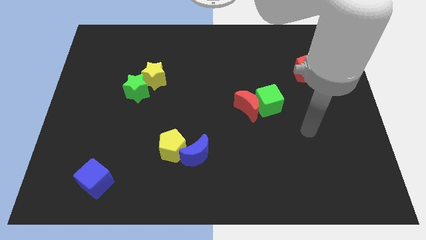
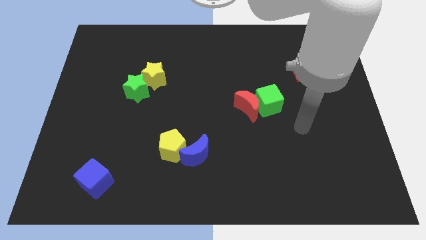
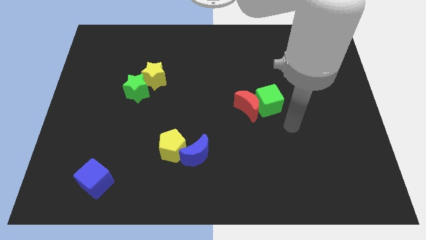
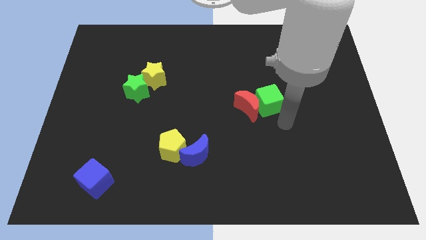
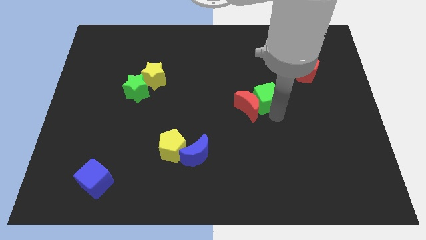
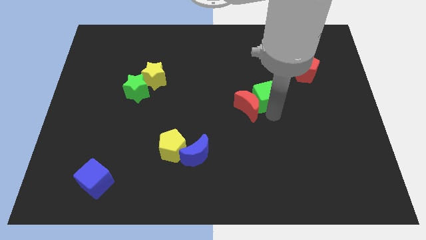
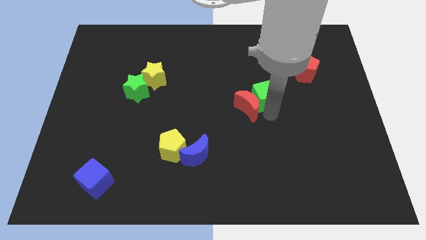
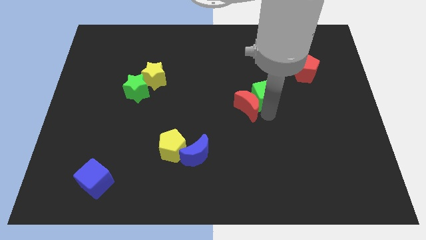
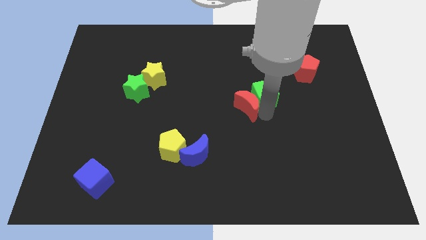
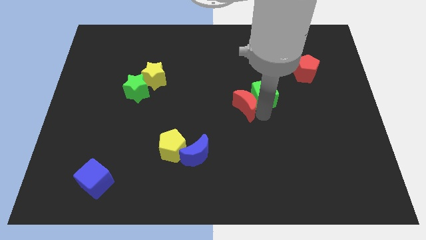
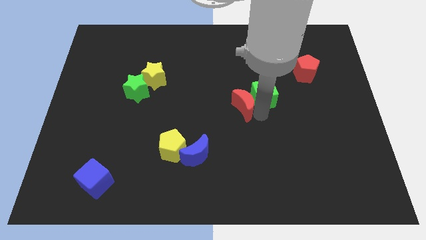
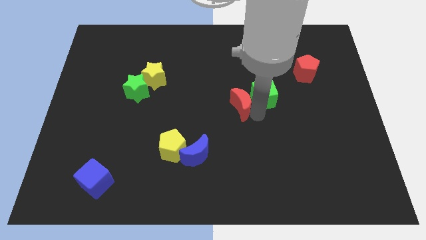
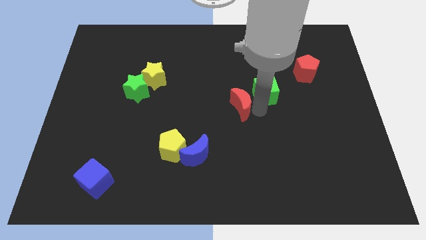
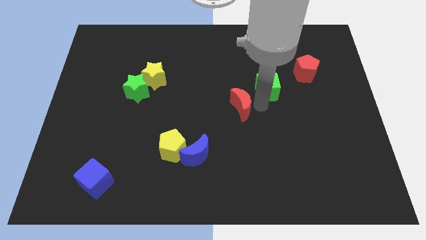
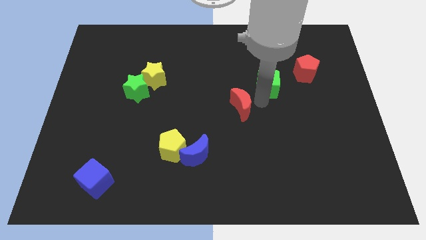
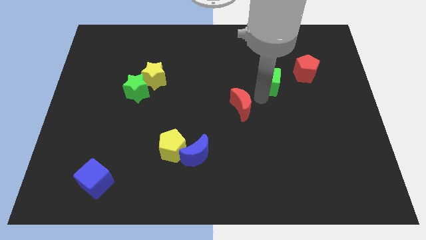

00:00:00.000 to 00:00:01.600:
move the red moon away from the green cube

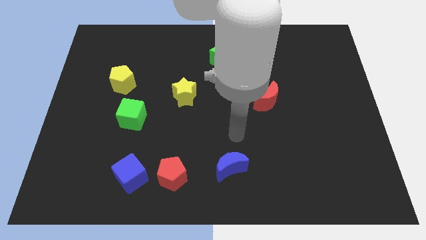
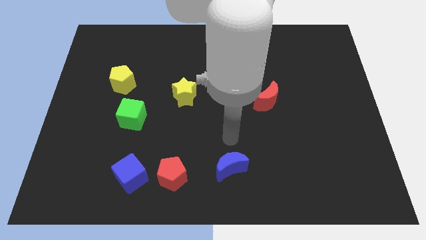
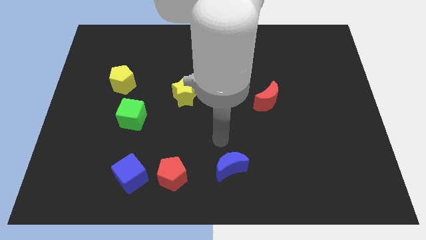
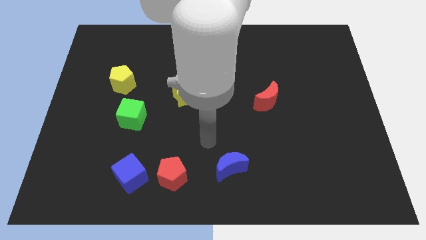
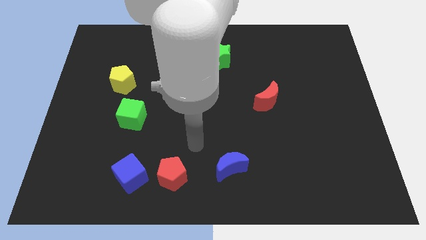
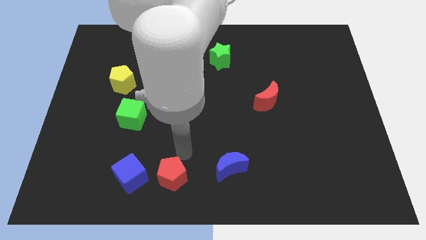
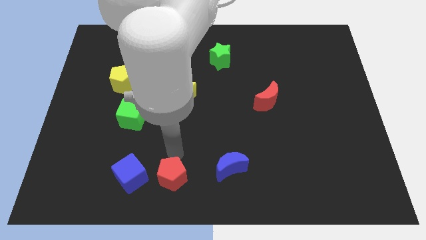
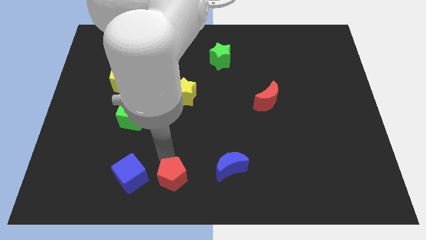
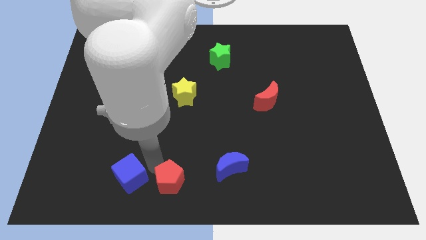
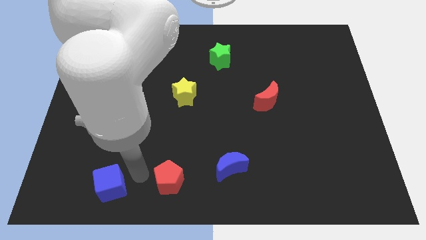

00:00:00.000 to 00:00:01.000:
pull the red pentagon apart from the blue cube

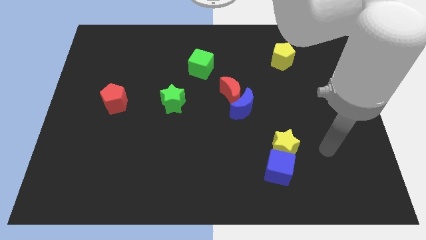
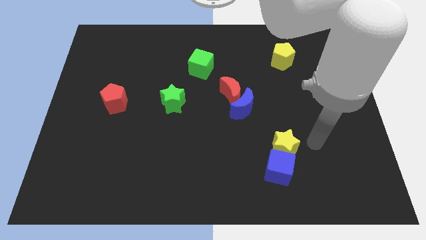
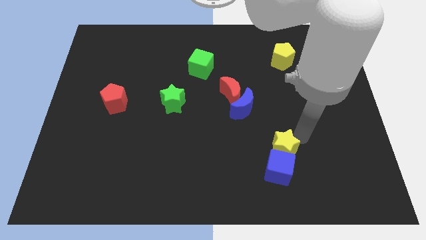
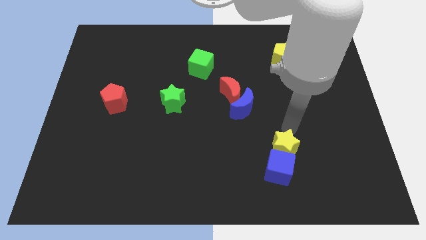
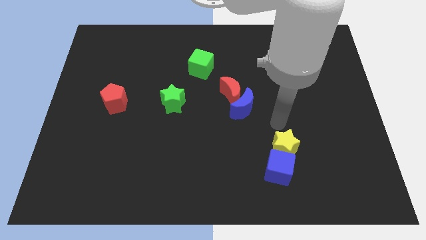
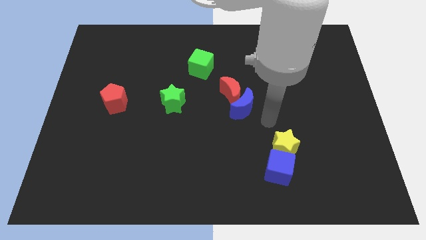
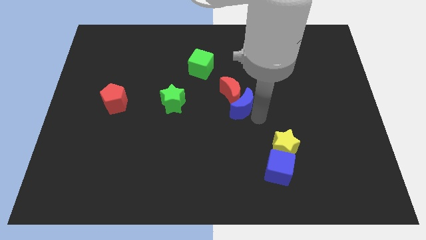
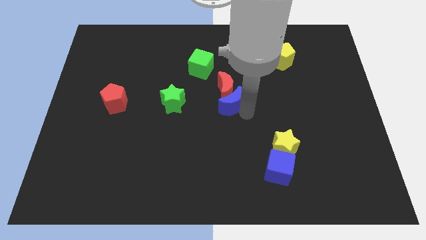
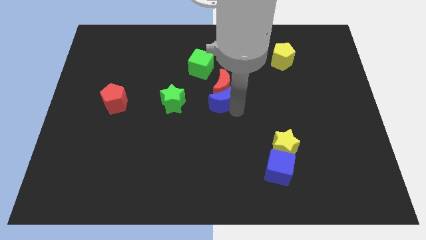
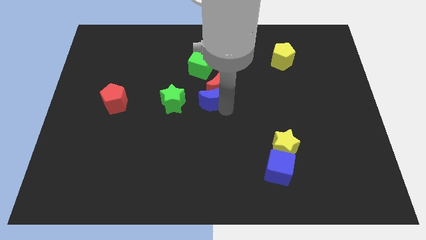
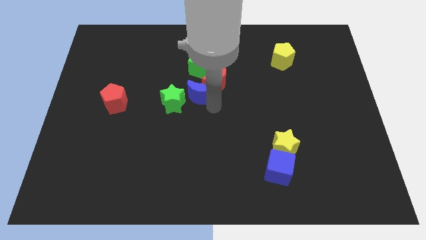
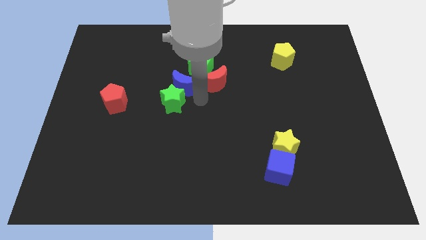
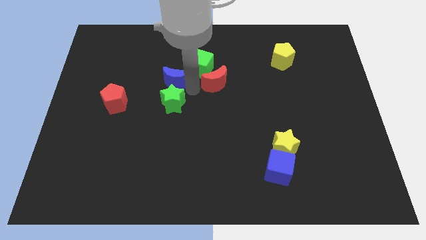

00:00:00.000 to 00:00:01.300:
move the red moon away from the blue moon

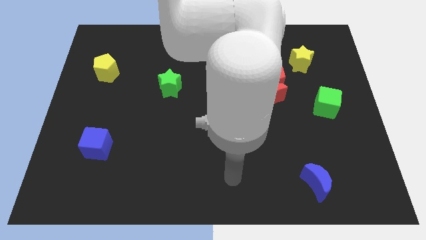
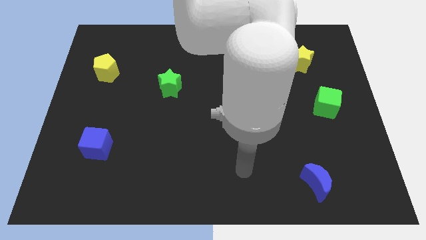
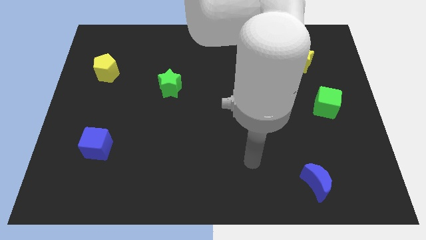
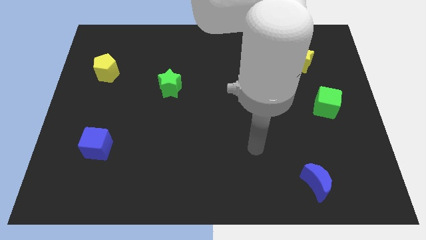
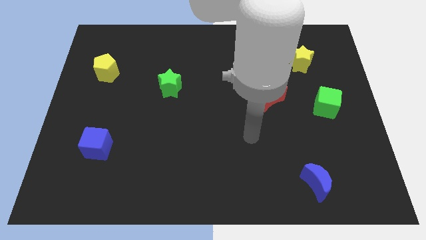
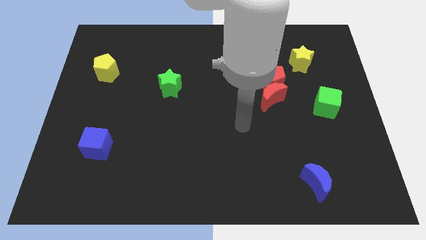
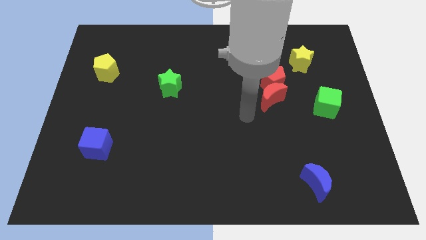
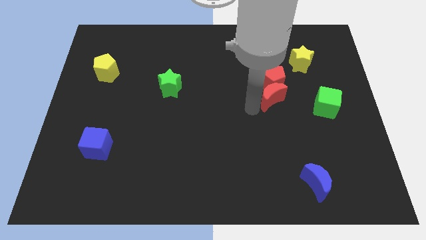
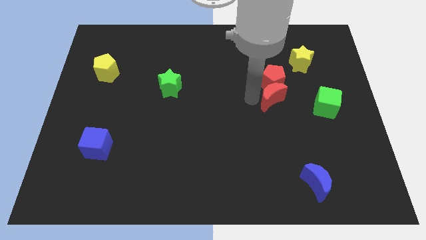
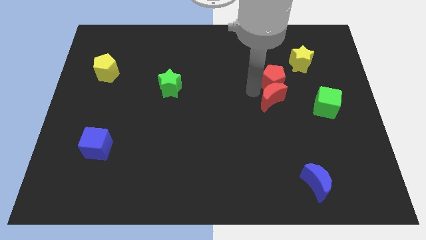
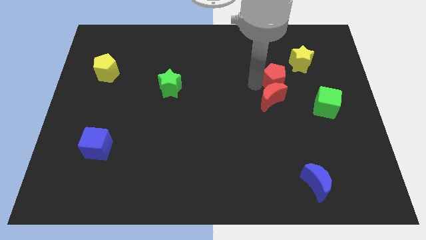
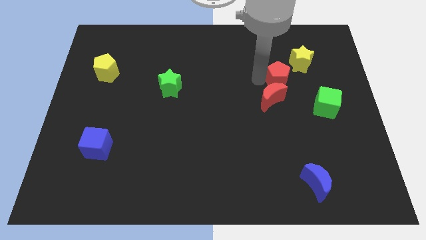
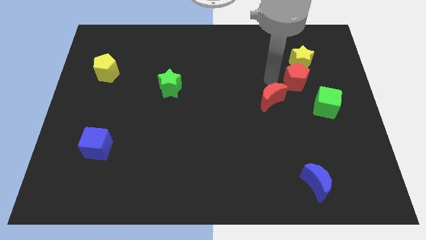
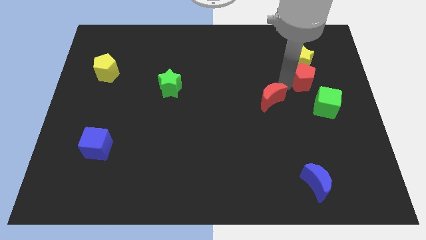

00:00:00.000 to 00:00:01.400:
pull the red moon apart from the red pentagon

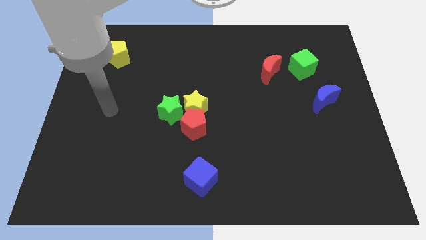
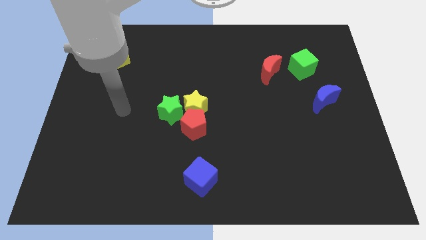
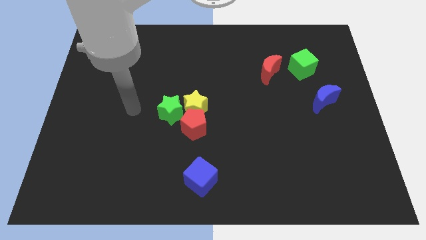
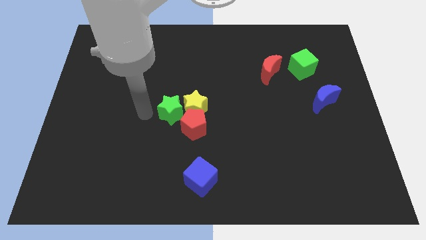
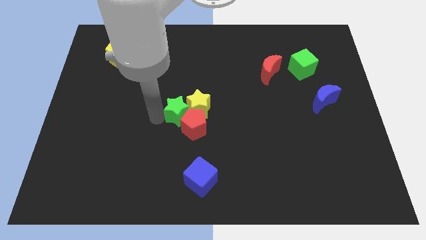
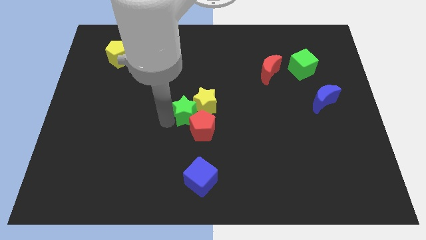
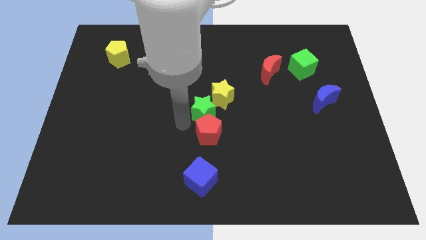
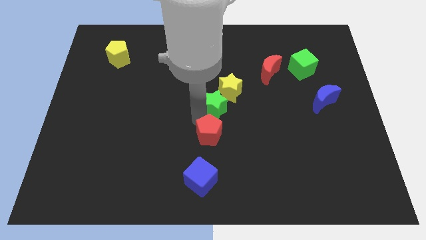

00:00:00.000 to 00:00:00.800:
pull the yellow star apart from the red pentagon and green star

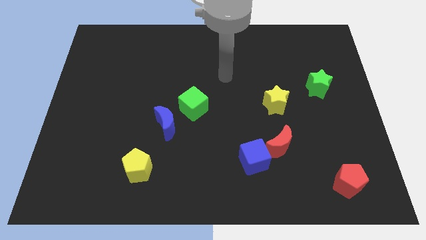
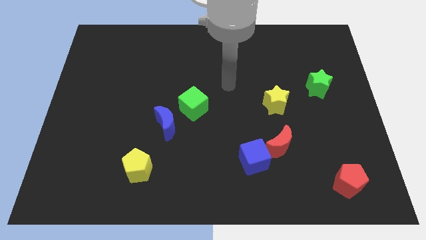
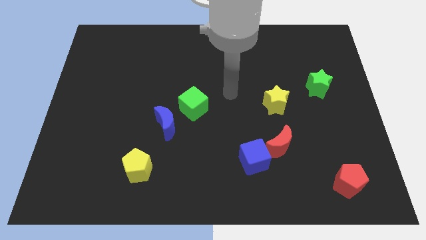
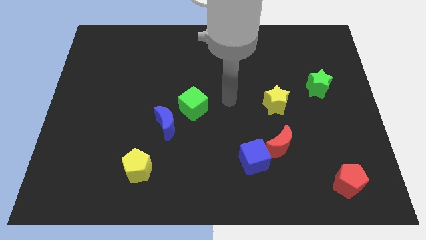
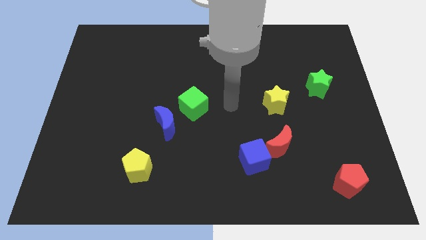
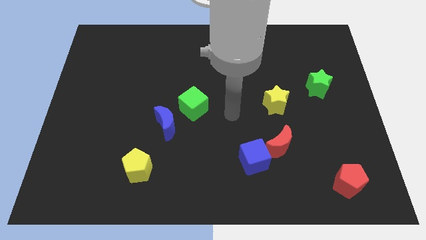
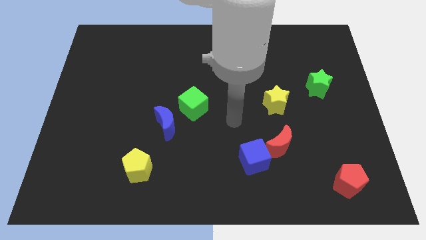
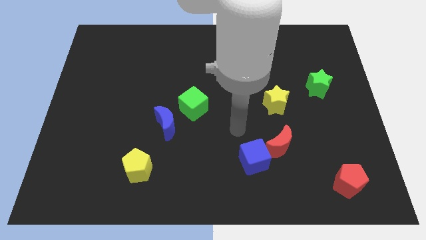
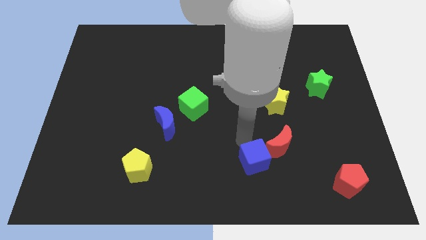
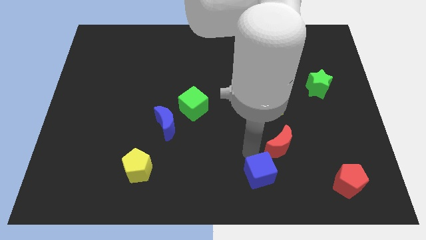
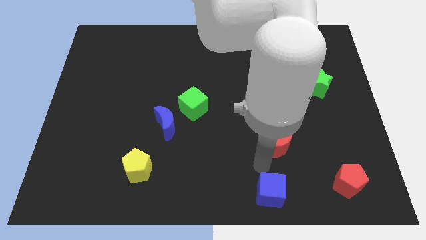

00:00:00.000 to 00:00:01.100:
move the red moon away from the blue cube

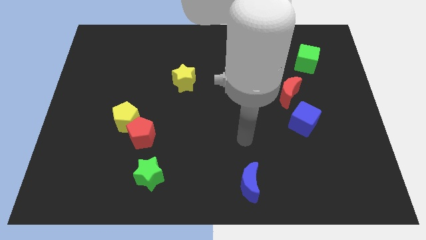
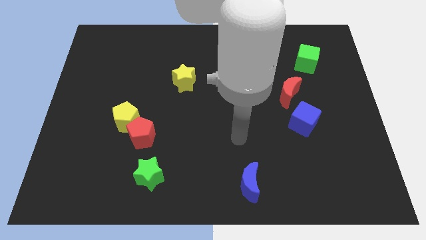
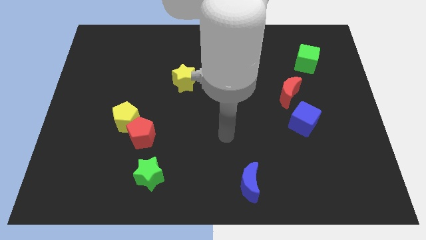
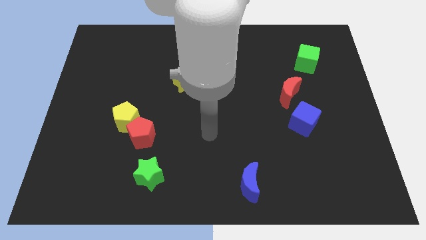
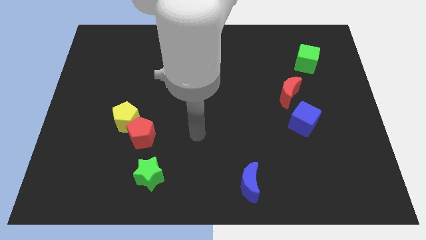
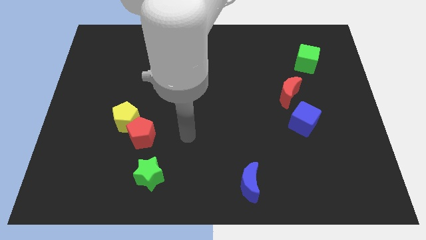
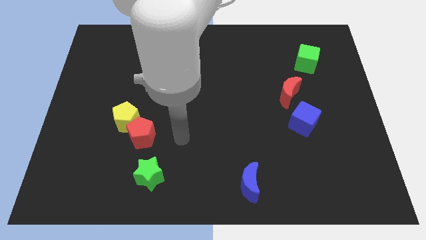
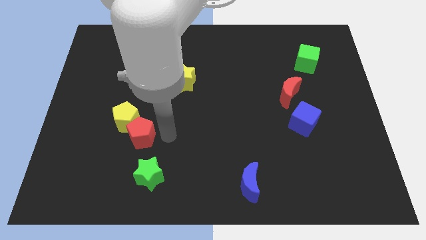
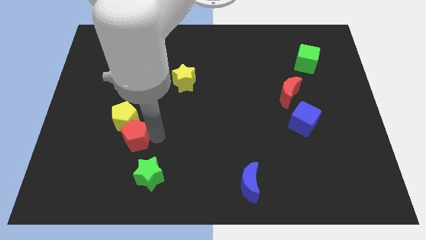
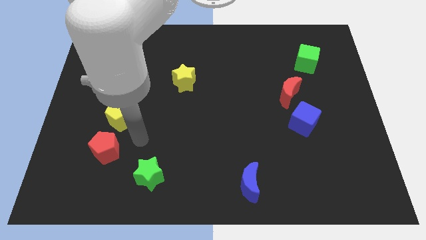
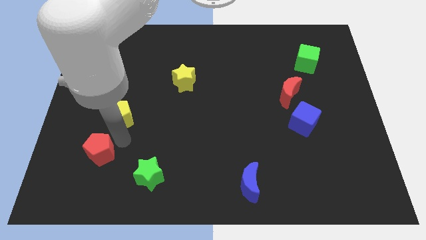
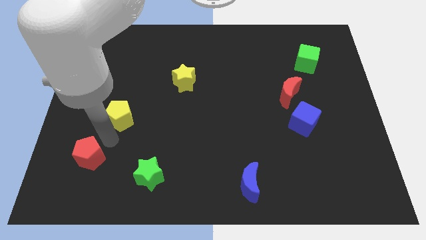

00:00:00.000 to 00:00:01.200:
separate the yellow pentagon from the red pentagon

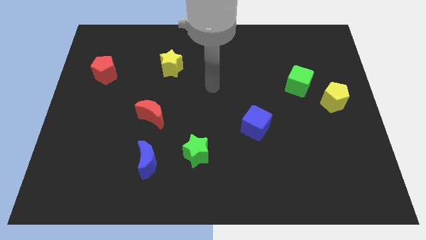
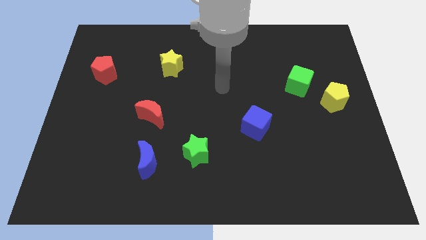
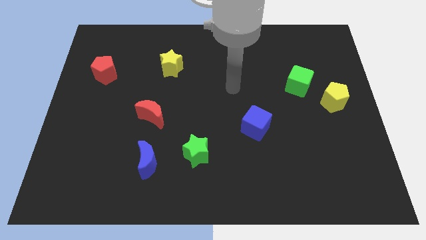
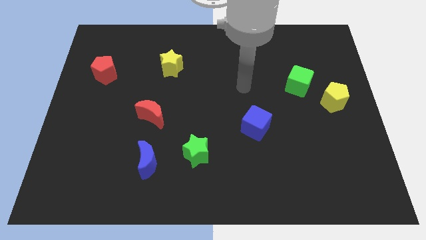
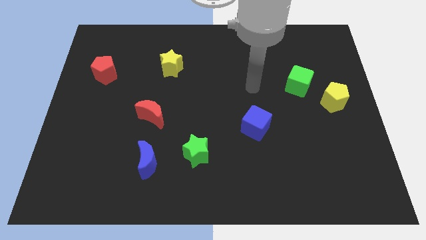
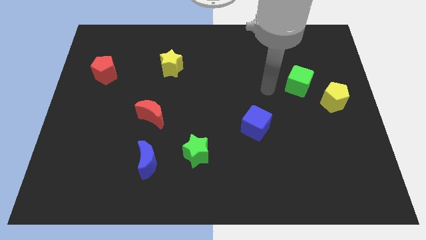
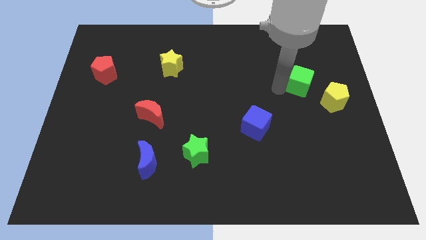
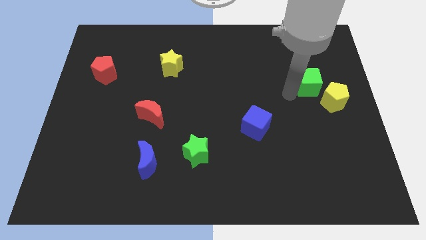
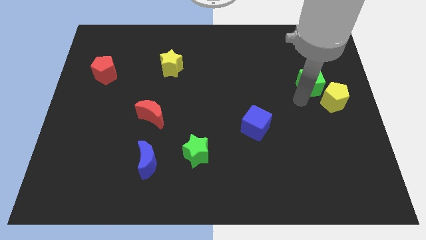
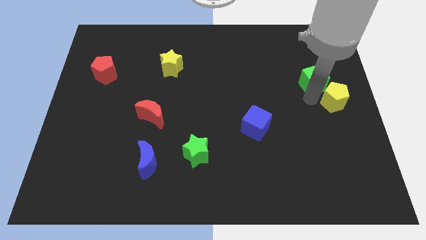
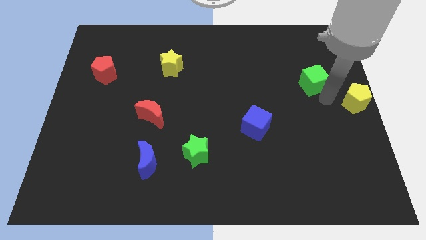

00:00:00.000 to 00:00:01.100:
move the green cube away from the yellow pentagon
